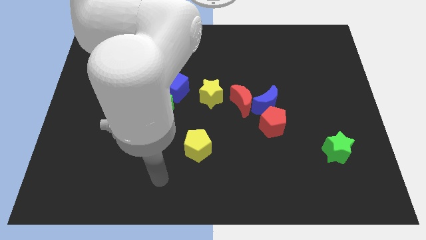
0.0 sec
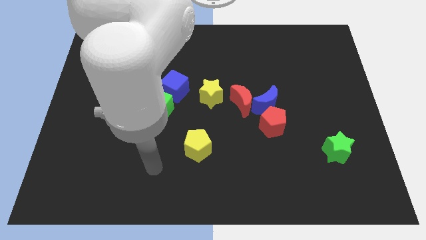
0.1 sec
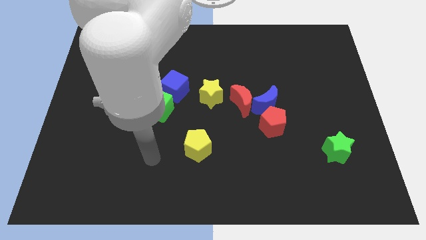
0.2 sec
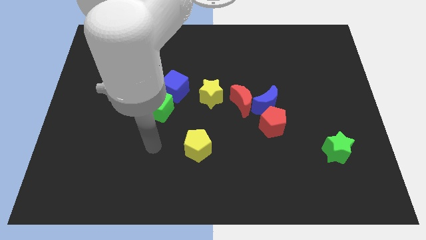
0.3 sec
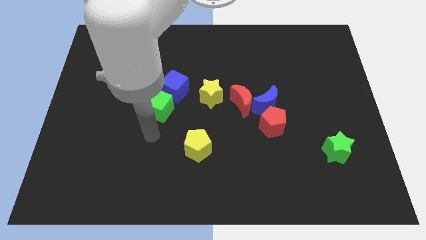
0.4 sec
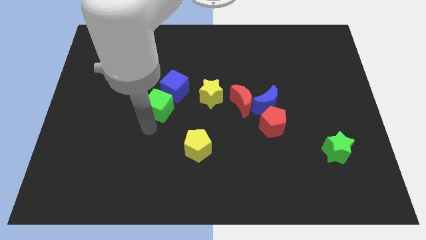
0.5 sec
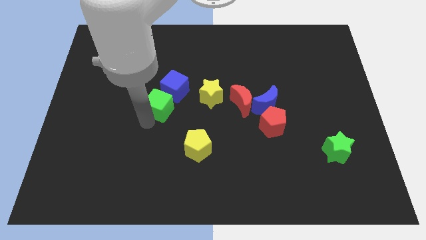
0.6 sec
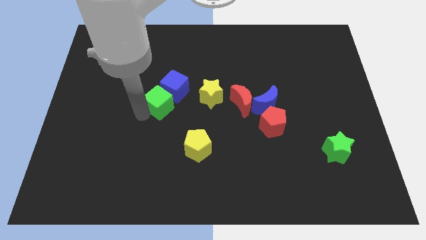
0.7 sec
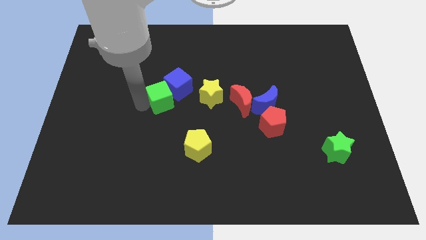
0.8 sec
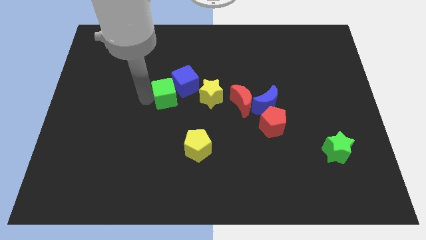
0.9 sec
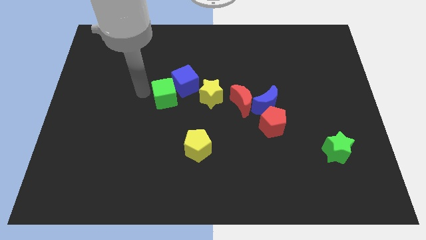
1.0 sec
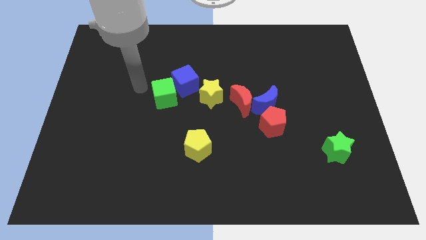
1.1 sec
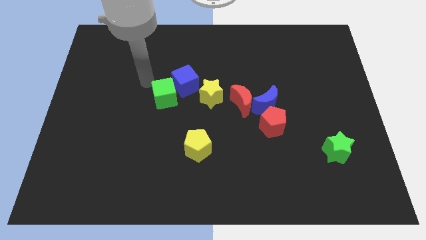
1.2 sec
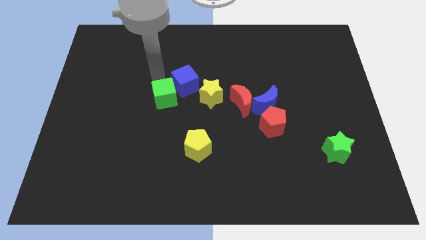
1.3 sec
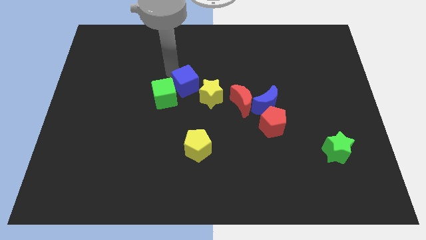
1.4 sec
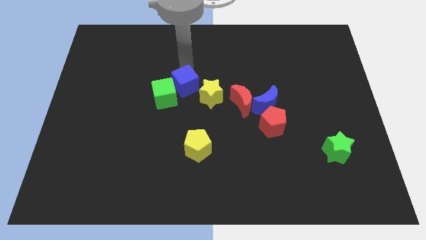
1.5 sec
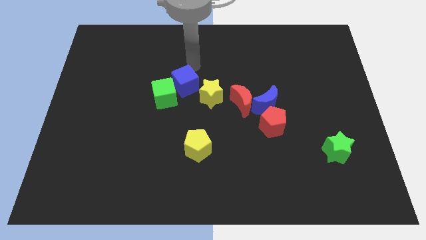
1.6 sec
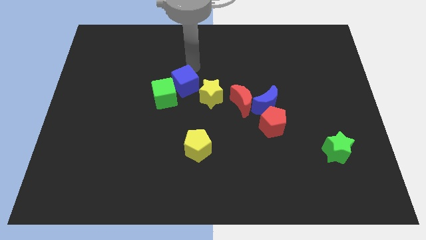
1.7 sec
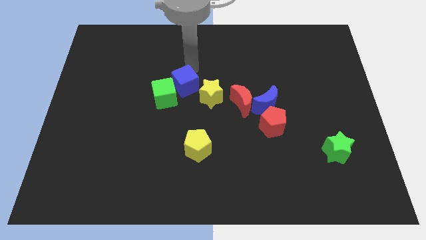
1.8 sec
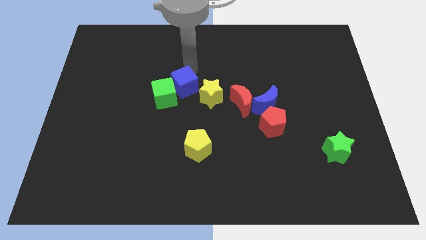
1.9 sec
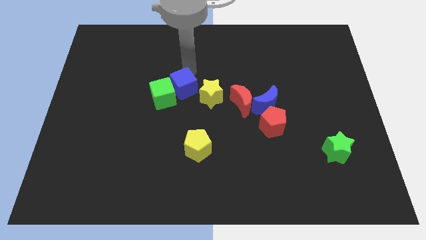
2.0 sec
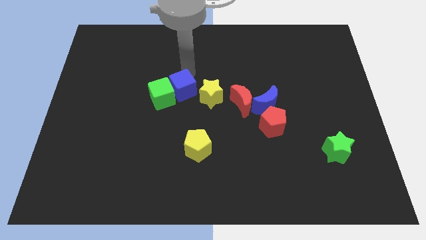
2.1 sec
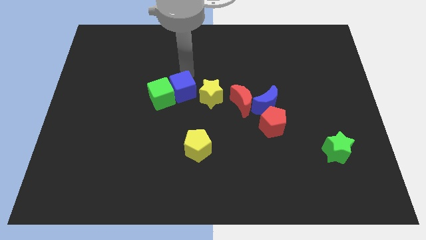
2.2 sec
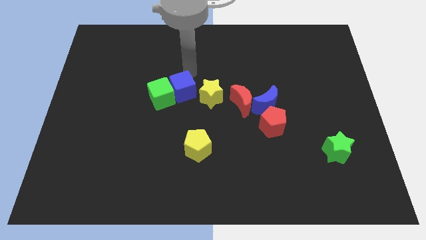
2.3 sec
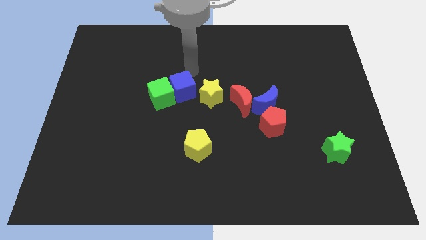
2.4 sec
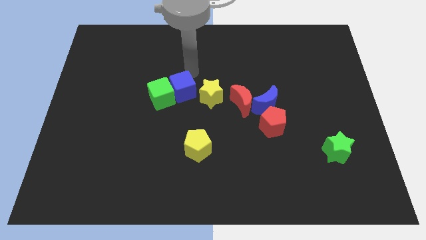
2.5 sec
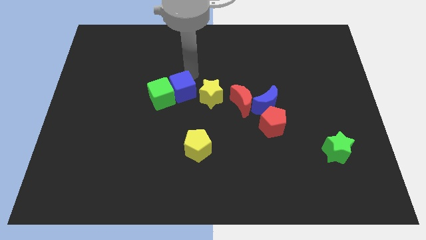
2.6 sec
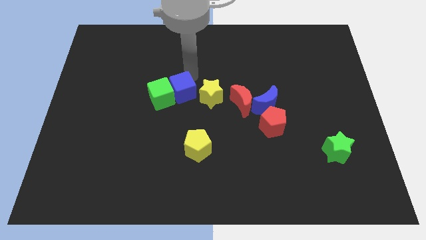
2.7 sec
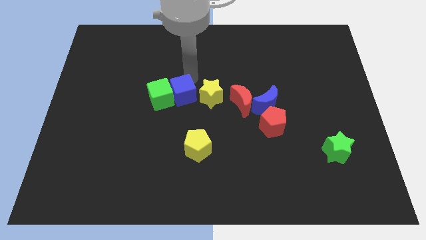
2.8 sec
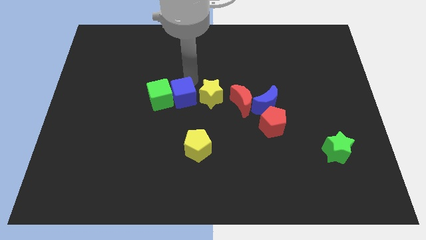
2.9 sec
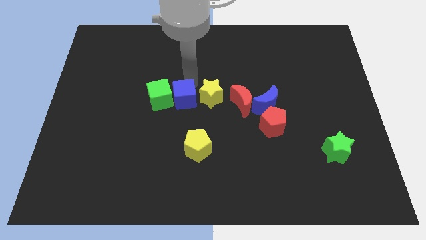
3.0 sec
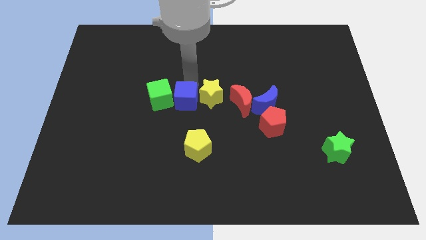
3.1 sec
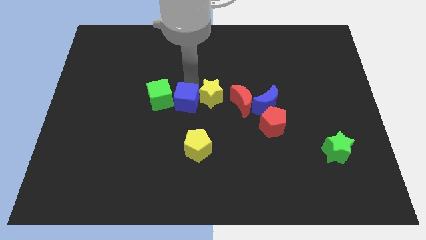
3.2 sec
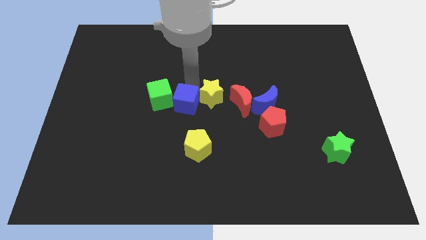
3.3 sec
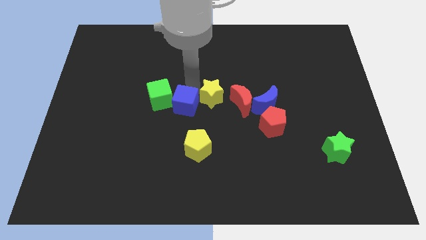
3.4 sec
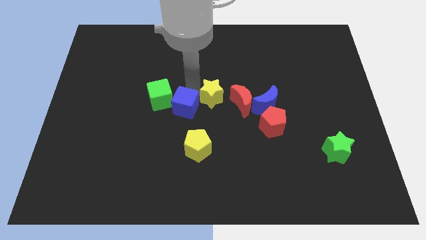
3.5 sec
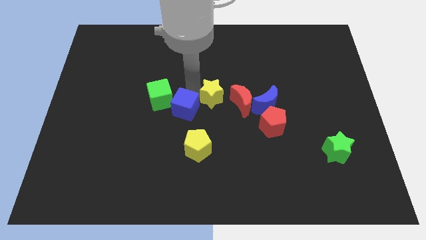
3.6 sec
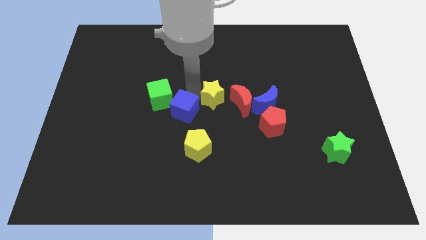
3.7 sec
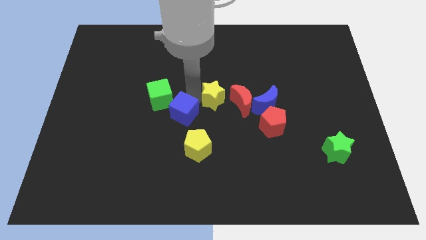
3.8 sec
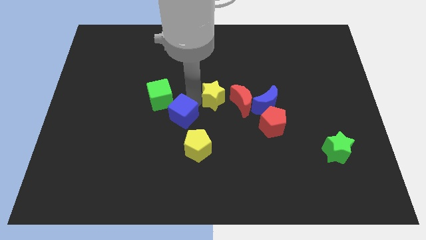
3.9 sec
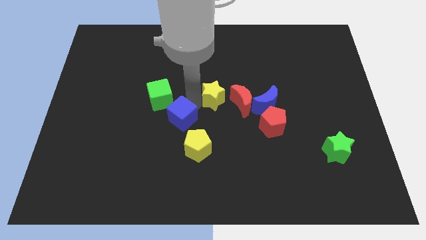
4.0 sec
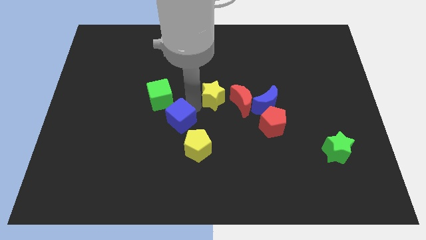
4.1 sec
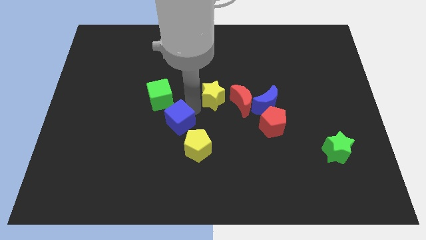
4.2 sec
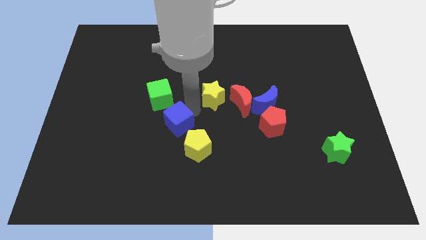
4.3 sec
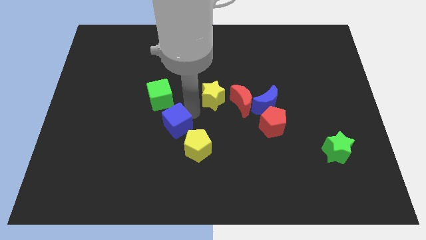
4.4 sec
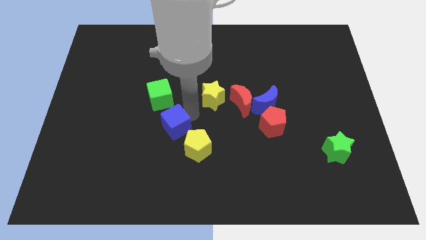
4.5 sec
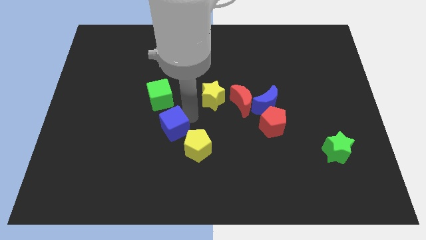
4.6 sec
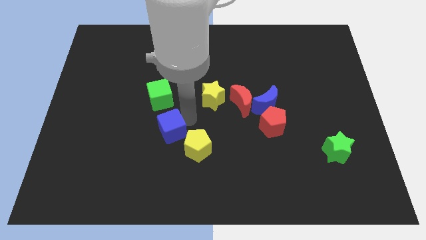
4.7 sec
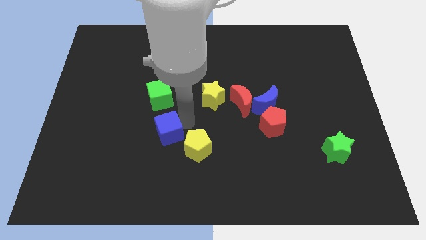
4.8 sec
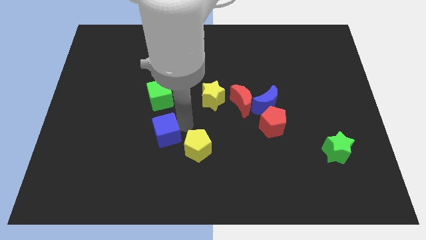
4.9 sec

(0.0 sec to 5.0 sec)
slightly push the blue cube downwards and then to the left

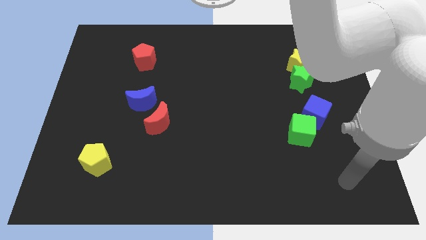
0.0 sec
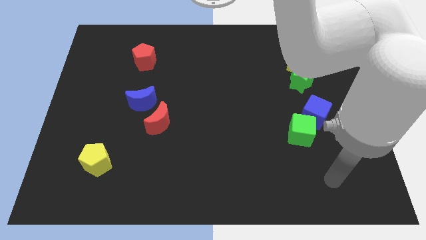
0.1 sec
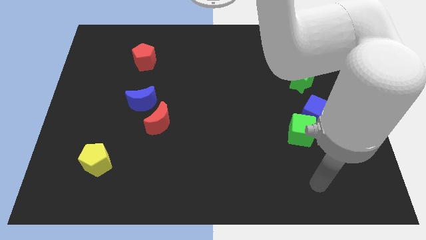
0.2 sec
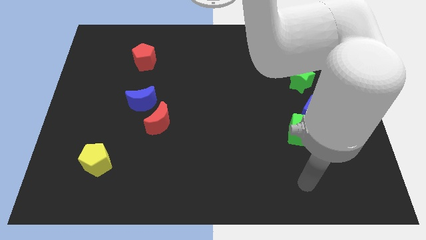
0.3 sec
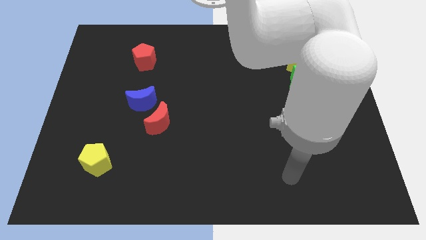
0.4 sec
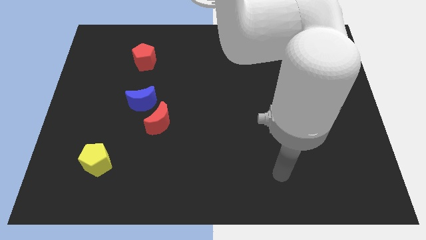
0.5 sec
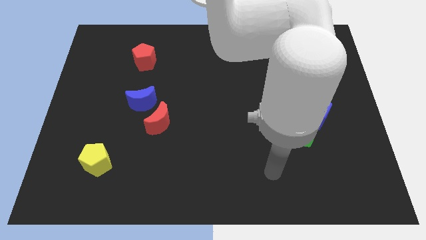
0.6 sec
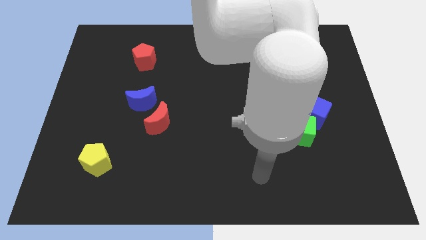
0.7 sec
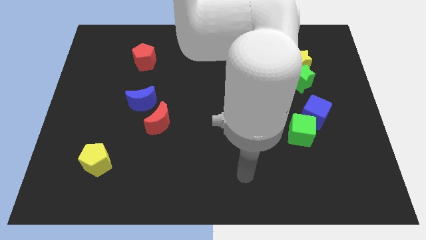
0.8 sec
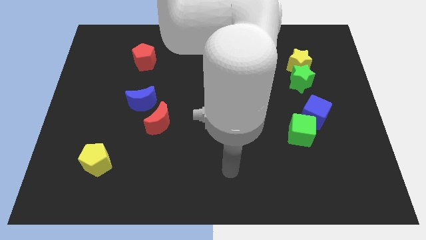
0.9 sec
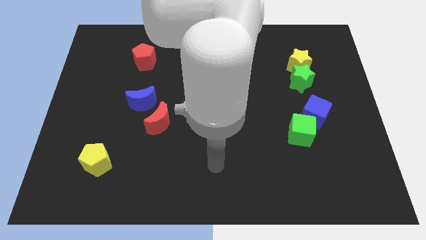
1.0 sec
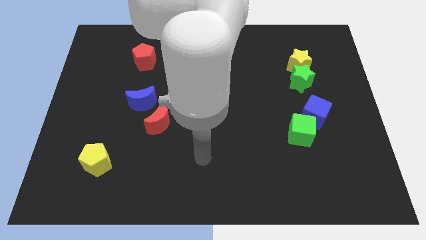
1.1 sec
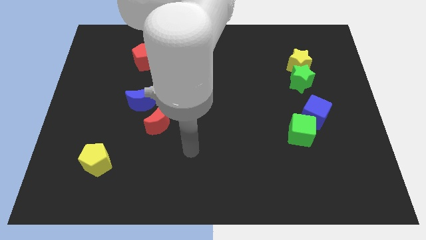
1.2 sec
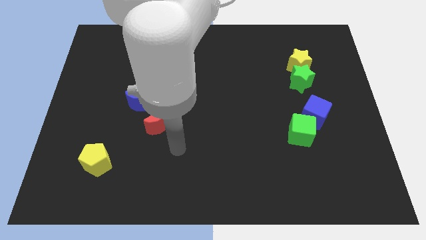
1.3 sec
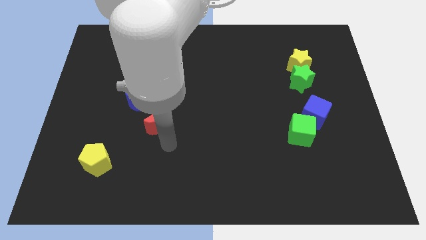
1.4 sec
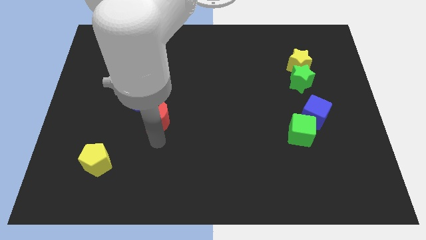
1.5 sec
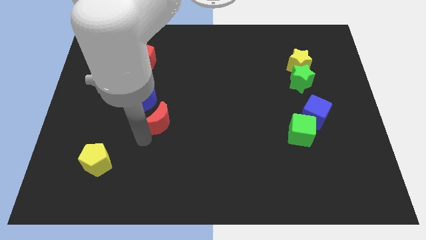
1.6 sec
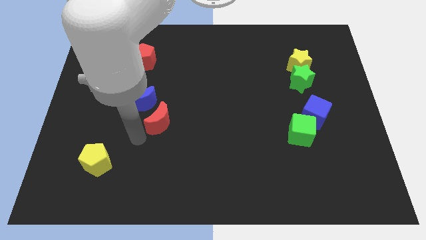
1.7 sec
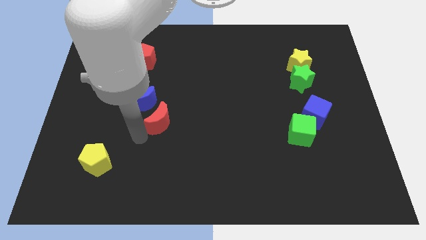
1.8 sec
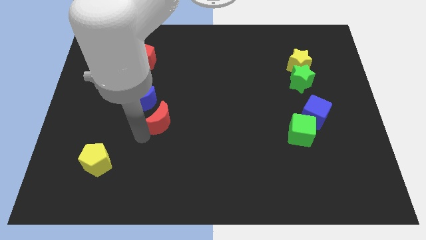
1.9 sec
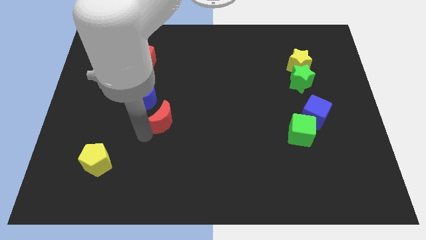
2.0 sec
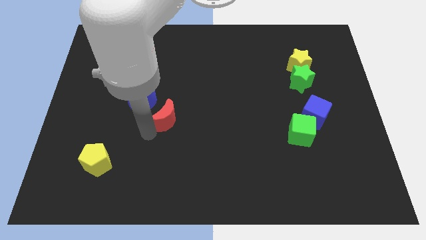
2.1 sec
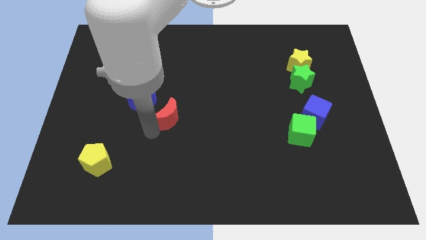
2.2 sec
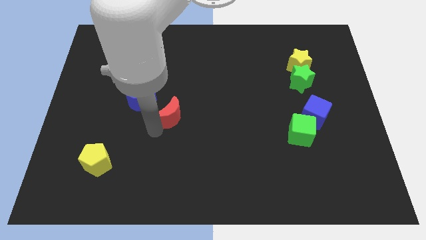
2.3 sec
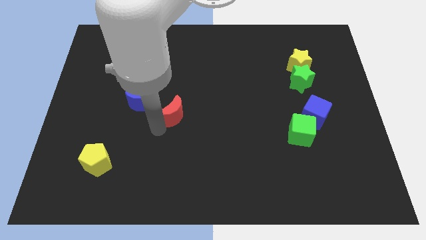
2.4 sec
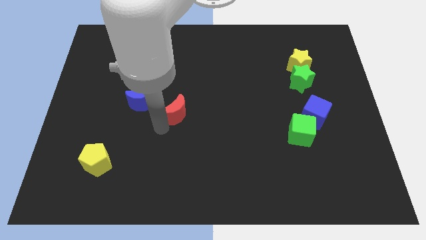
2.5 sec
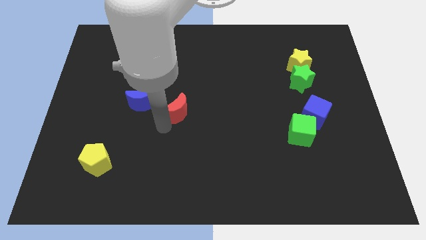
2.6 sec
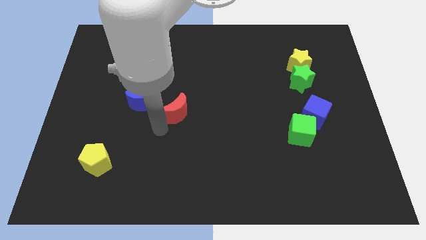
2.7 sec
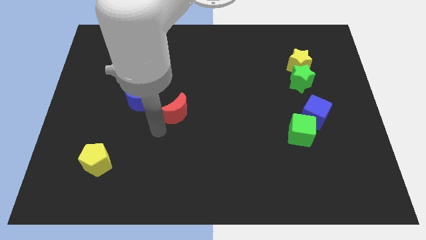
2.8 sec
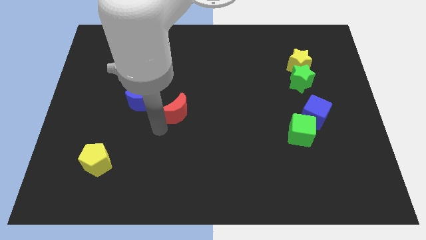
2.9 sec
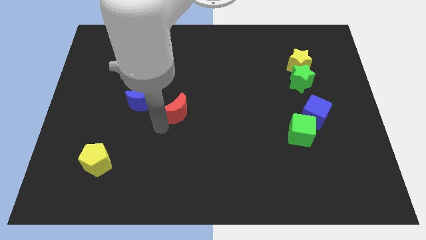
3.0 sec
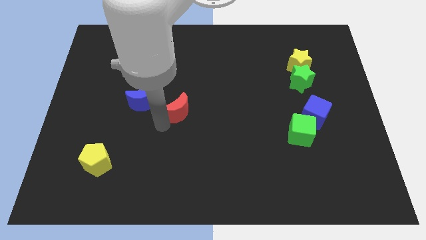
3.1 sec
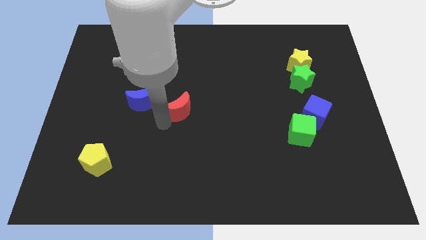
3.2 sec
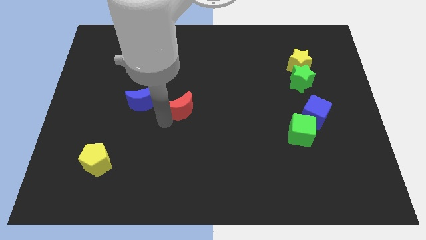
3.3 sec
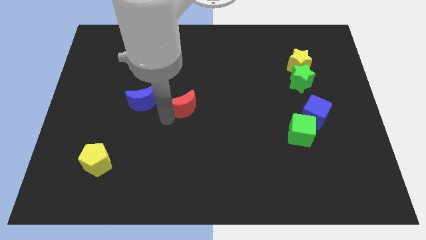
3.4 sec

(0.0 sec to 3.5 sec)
slightly move the red moon diagonally up and right

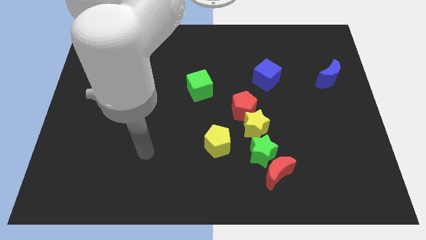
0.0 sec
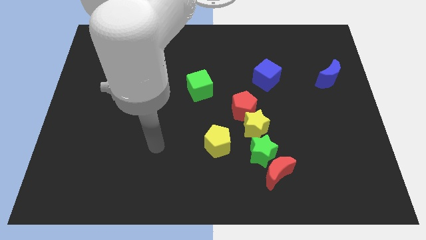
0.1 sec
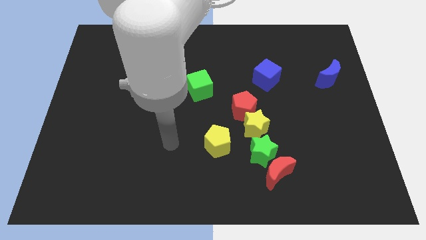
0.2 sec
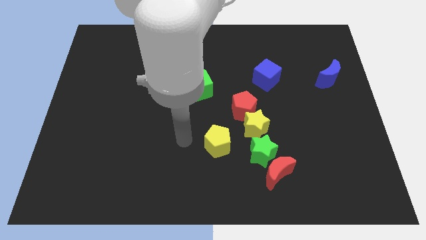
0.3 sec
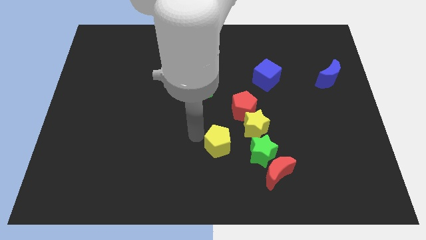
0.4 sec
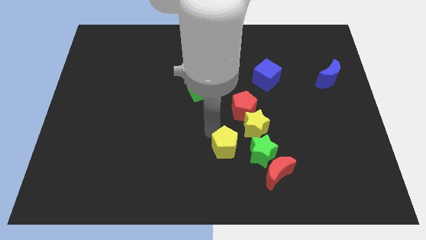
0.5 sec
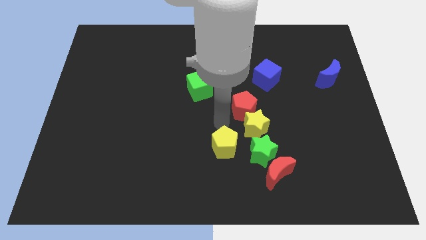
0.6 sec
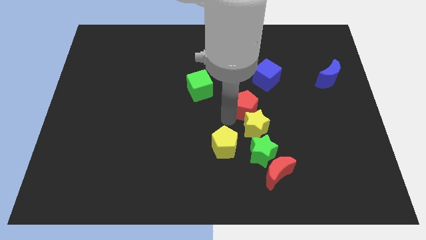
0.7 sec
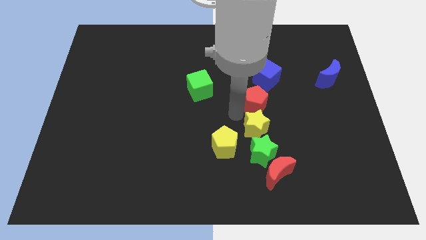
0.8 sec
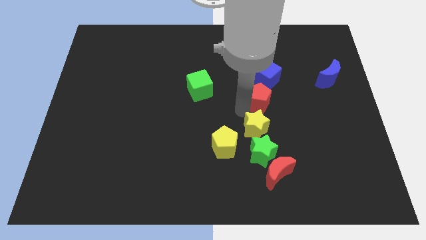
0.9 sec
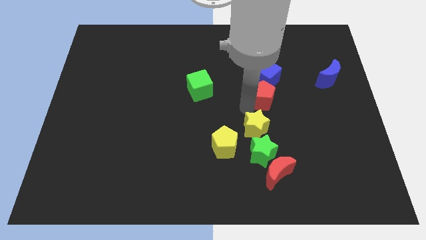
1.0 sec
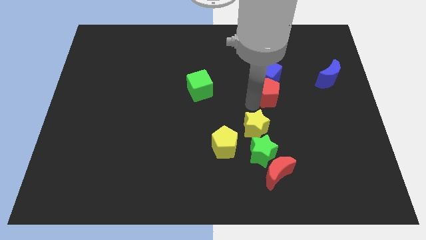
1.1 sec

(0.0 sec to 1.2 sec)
slightly push the red pentagon up and to the right
